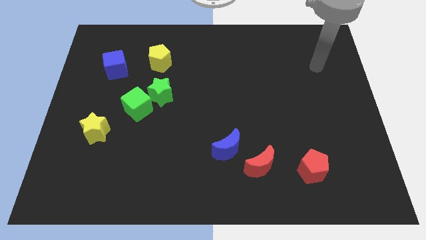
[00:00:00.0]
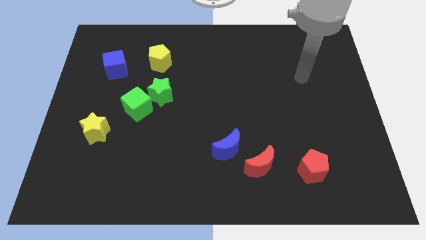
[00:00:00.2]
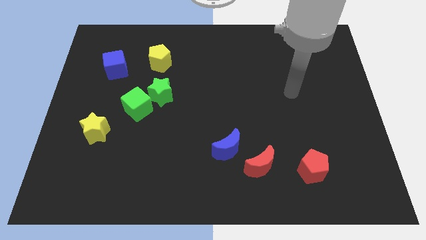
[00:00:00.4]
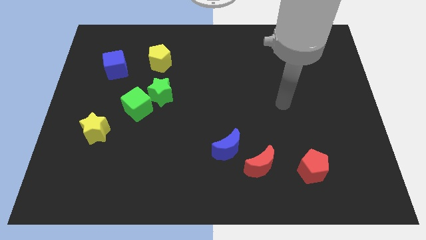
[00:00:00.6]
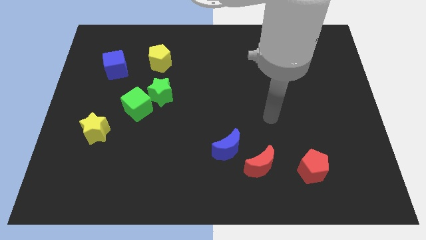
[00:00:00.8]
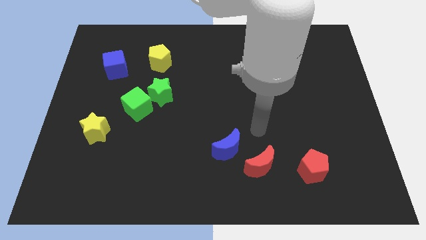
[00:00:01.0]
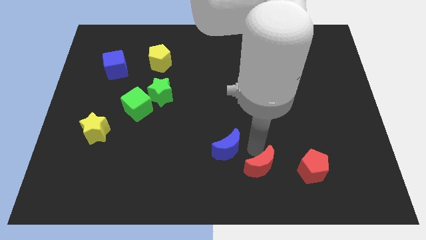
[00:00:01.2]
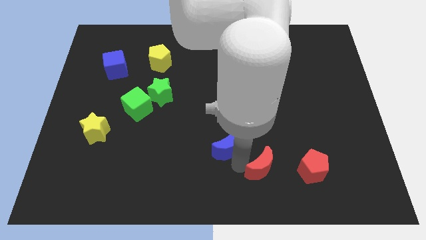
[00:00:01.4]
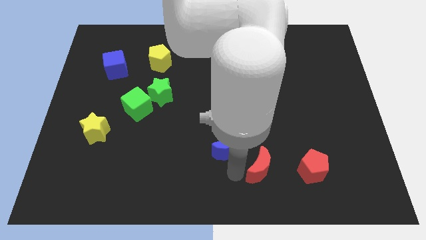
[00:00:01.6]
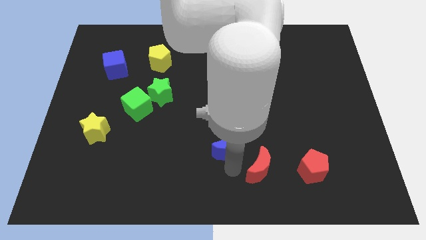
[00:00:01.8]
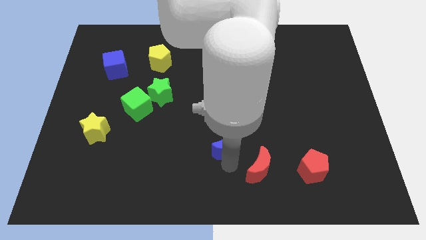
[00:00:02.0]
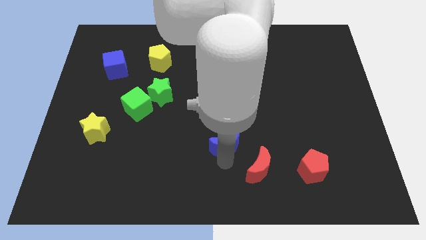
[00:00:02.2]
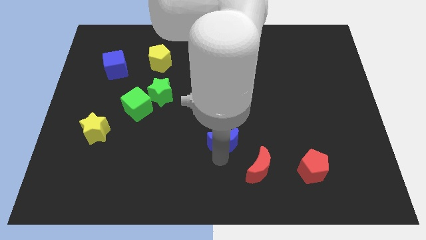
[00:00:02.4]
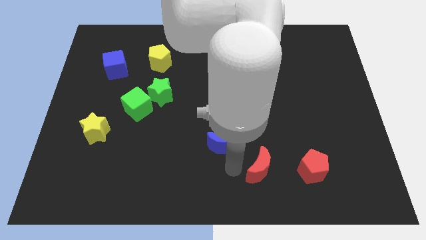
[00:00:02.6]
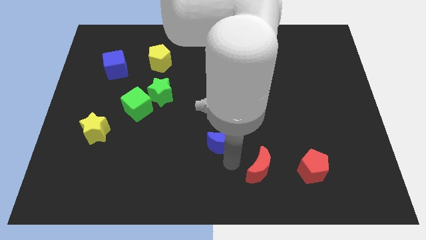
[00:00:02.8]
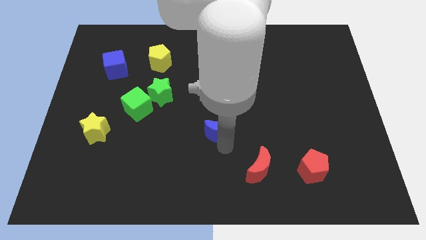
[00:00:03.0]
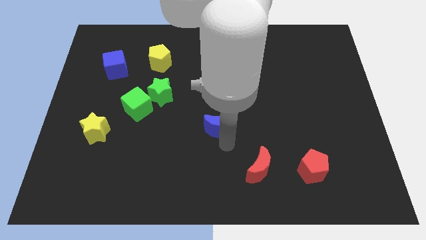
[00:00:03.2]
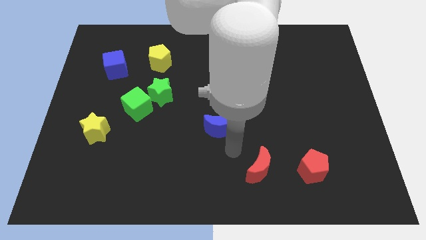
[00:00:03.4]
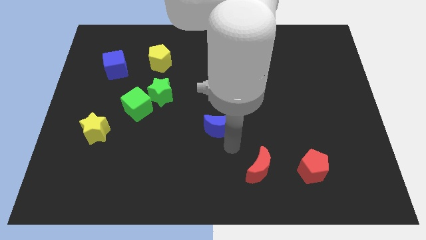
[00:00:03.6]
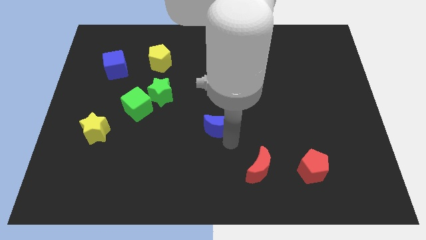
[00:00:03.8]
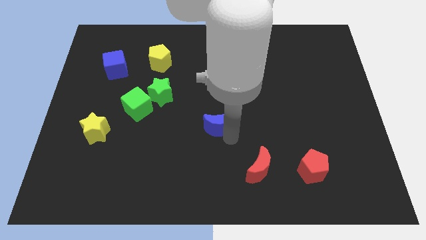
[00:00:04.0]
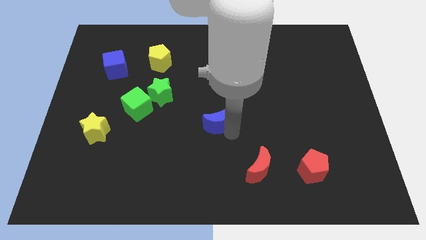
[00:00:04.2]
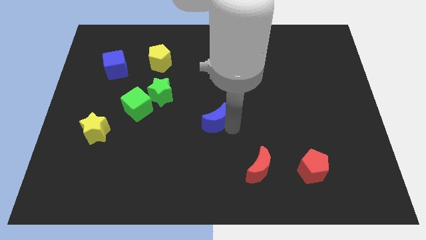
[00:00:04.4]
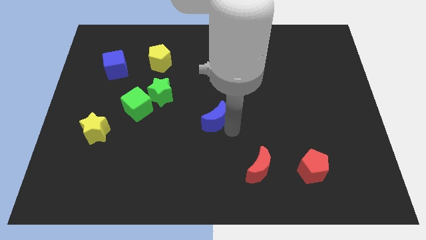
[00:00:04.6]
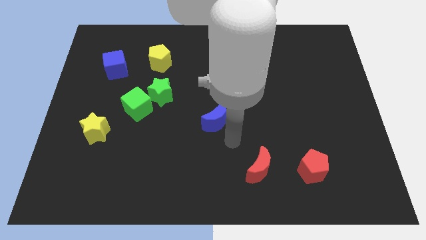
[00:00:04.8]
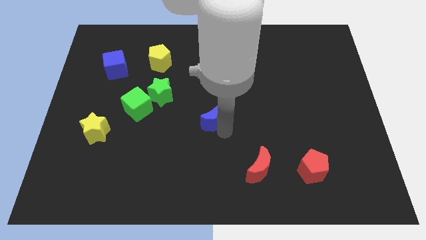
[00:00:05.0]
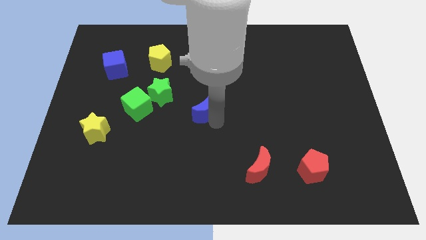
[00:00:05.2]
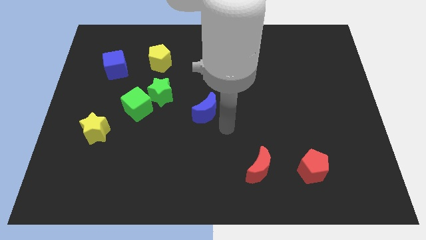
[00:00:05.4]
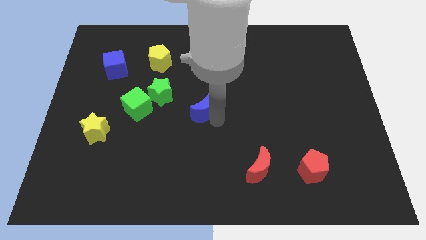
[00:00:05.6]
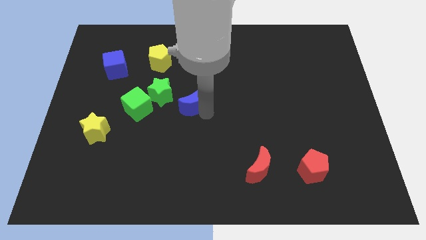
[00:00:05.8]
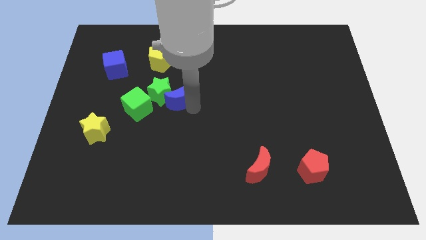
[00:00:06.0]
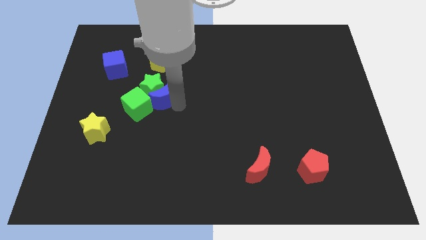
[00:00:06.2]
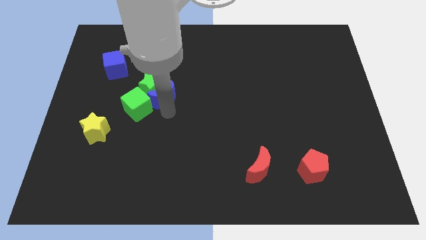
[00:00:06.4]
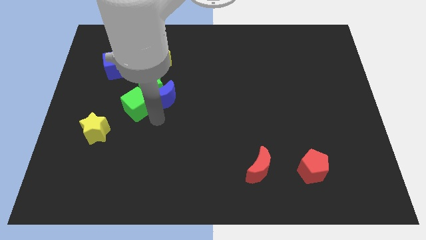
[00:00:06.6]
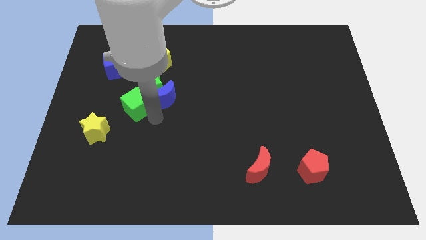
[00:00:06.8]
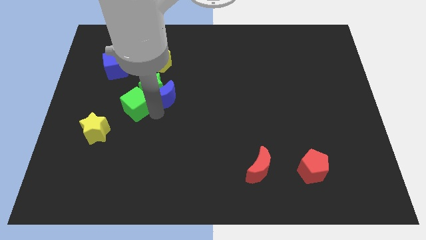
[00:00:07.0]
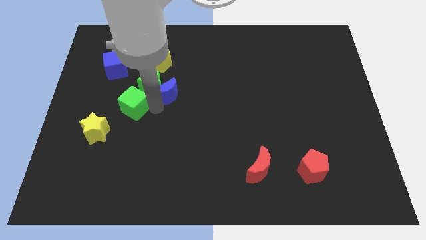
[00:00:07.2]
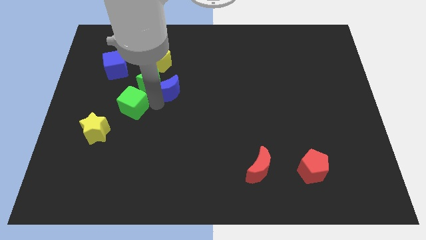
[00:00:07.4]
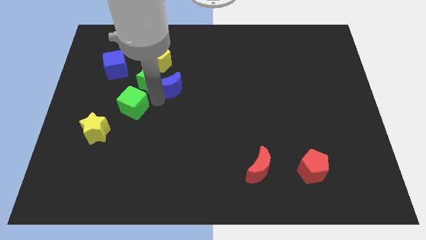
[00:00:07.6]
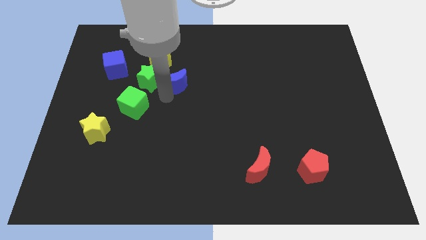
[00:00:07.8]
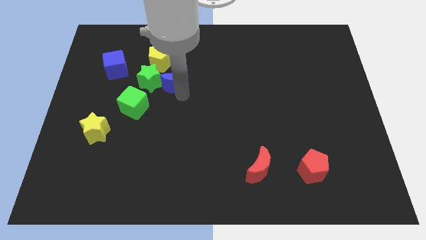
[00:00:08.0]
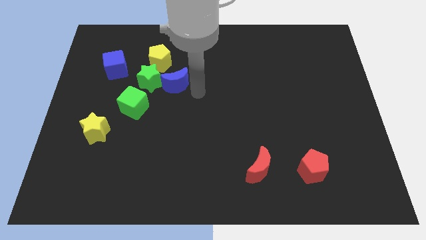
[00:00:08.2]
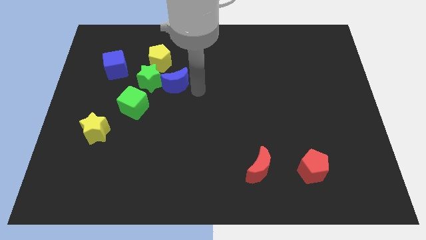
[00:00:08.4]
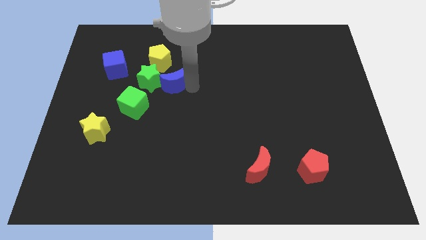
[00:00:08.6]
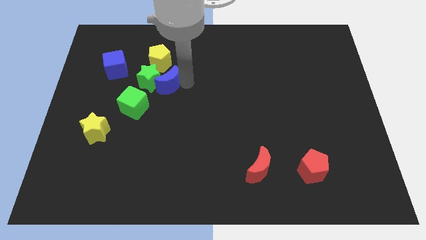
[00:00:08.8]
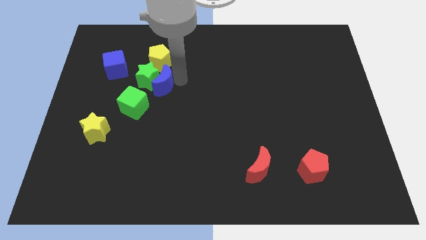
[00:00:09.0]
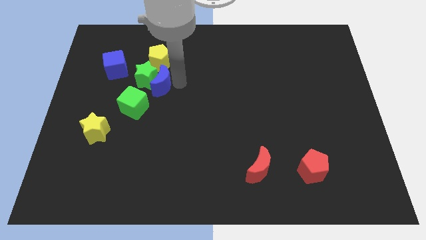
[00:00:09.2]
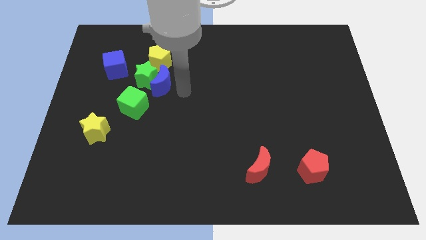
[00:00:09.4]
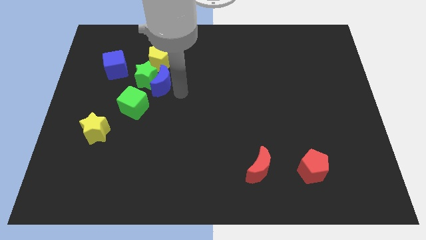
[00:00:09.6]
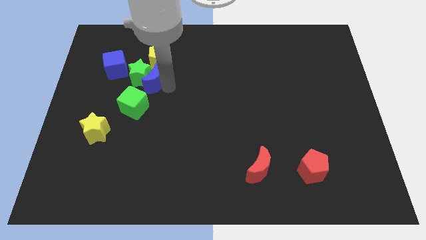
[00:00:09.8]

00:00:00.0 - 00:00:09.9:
move the blue moon to the top of the green cube

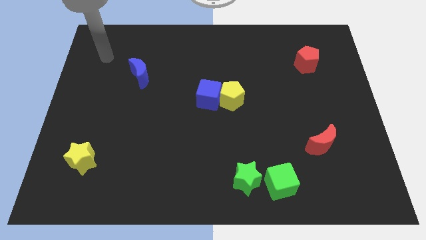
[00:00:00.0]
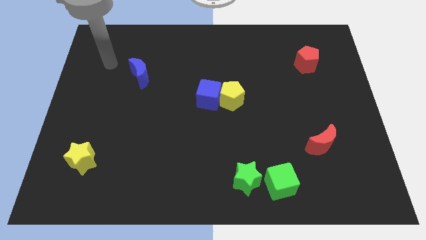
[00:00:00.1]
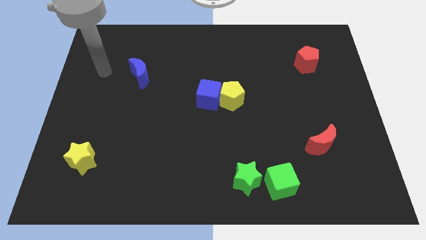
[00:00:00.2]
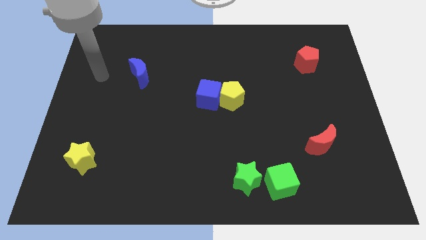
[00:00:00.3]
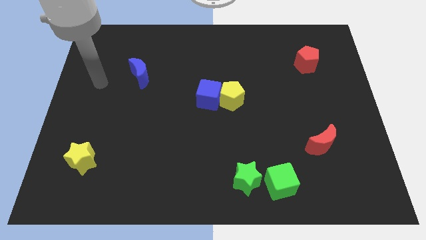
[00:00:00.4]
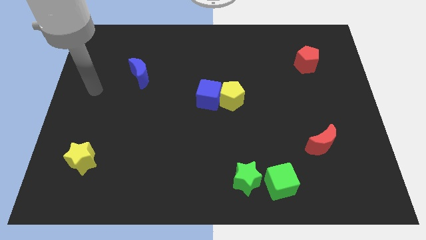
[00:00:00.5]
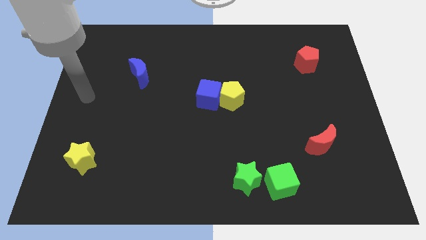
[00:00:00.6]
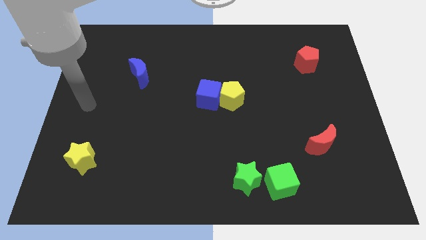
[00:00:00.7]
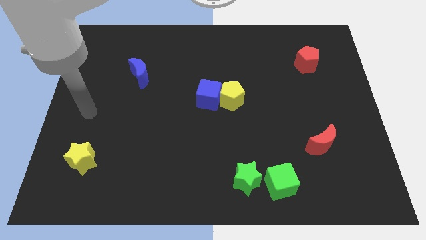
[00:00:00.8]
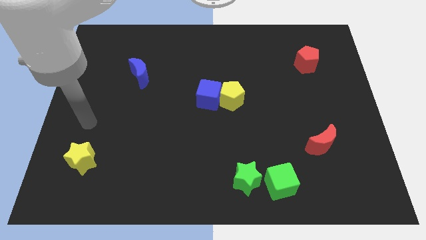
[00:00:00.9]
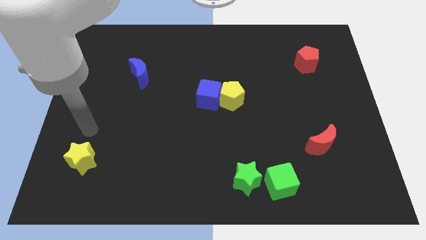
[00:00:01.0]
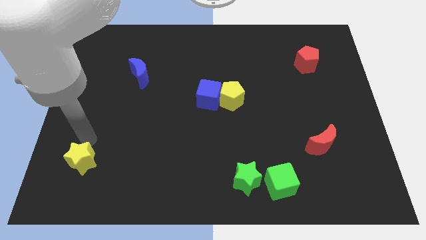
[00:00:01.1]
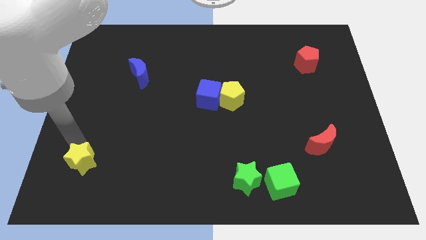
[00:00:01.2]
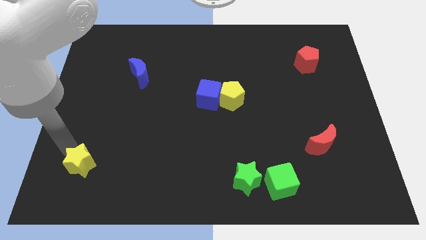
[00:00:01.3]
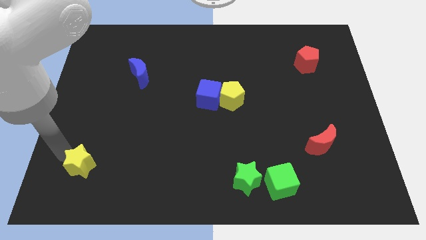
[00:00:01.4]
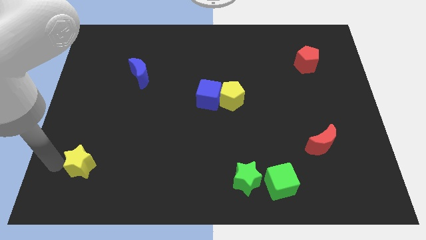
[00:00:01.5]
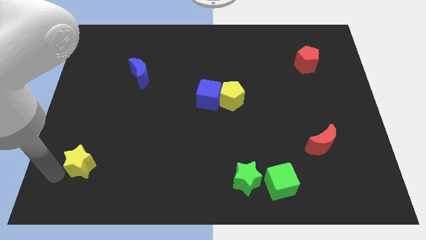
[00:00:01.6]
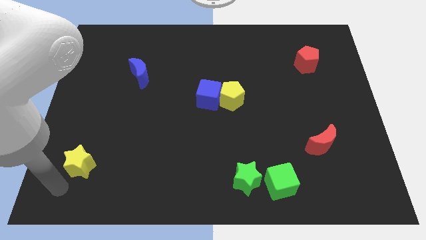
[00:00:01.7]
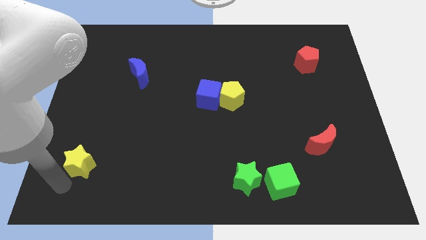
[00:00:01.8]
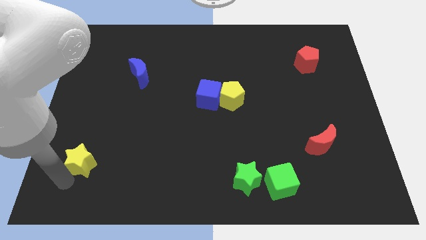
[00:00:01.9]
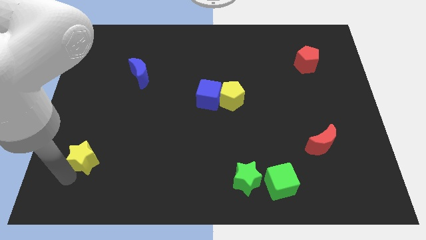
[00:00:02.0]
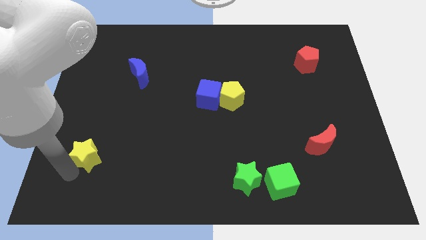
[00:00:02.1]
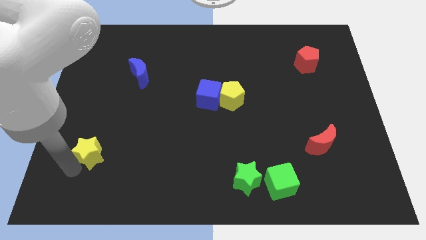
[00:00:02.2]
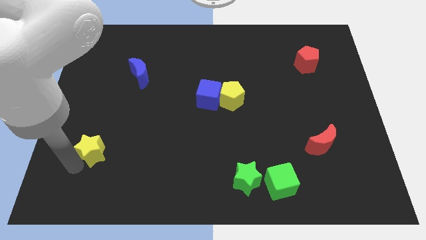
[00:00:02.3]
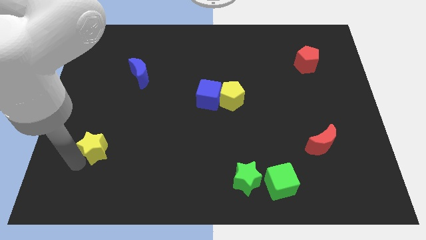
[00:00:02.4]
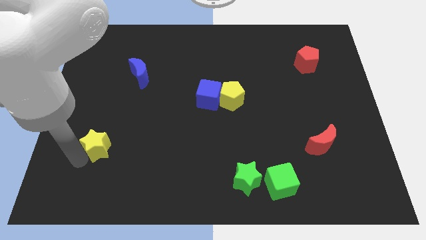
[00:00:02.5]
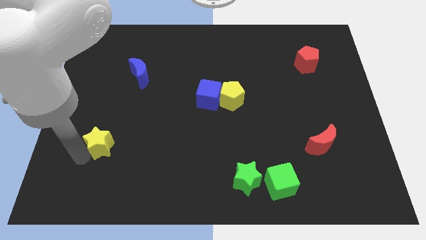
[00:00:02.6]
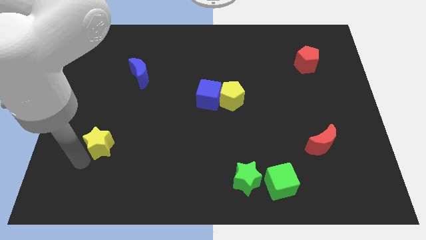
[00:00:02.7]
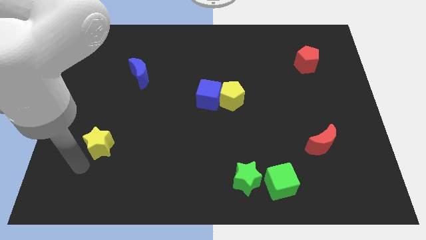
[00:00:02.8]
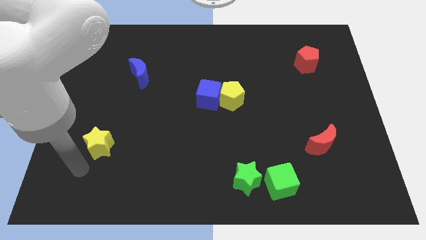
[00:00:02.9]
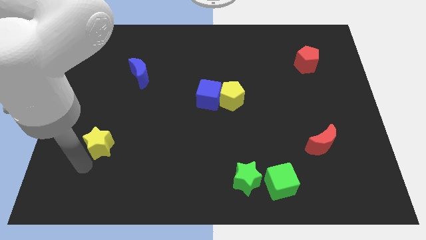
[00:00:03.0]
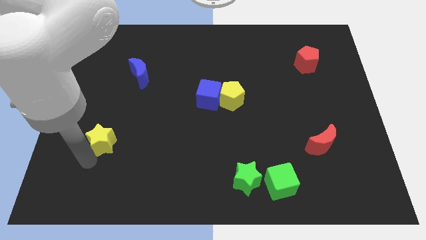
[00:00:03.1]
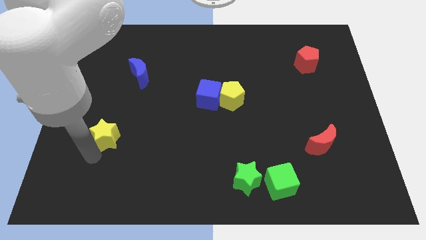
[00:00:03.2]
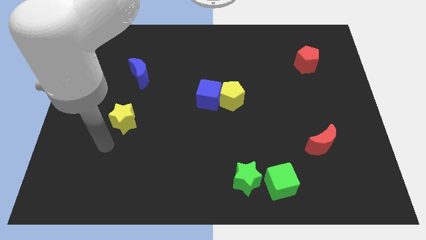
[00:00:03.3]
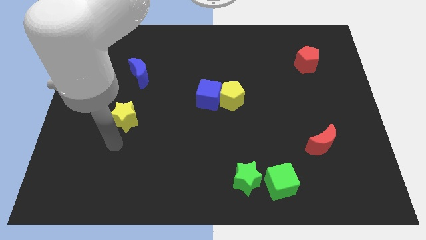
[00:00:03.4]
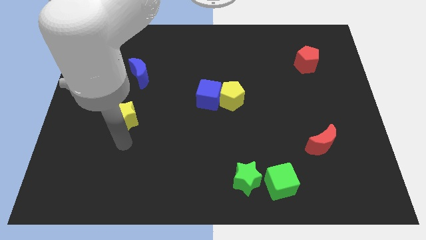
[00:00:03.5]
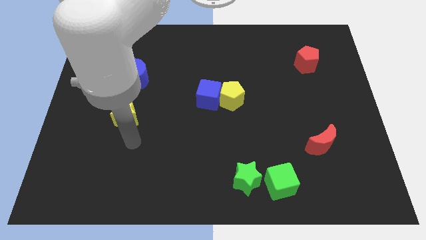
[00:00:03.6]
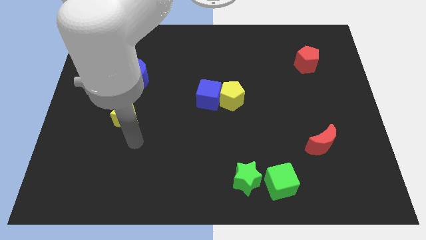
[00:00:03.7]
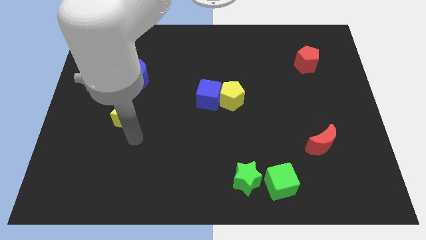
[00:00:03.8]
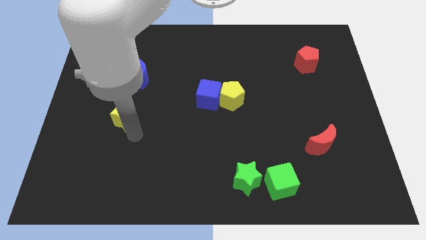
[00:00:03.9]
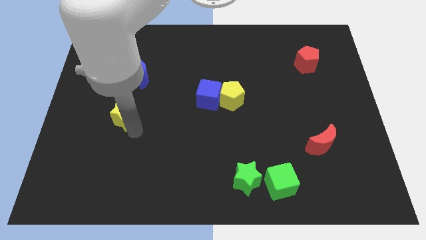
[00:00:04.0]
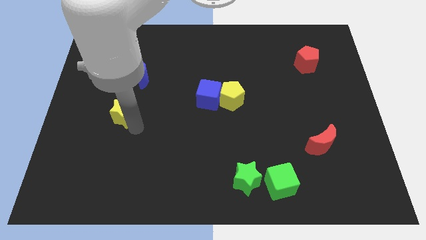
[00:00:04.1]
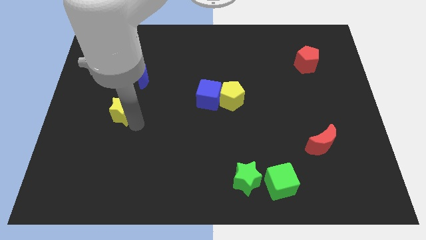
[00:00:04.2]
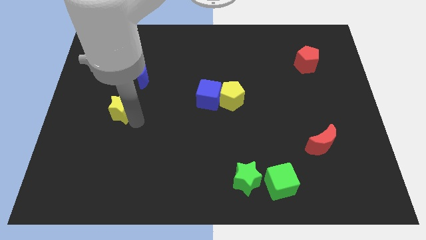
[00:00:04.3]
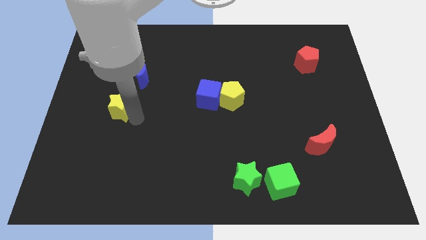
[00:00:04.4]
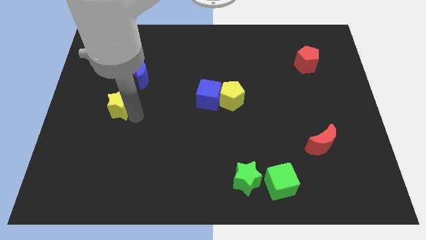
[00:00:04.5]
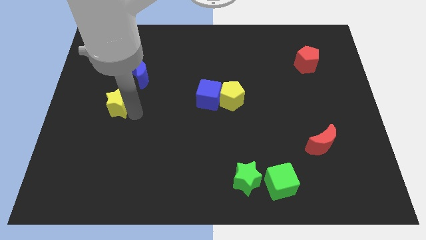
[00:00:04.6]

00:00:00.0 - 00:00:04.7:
slide the yellow star to the bottom left side of the blue moon
